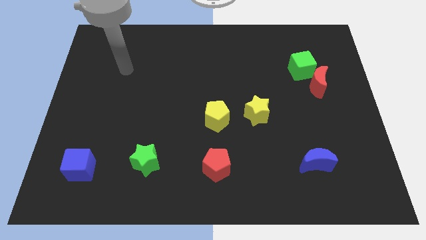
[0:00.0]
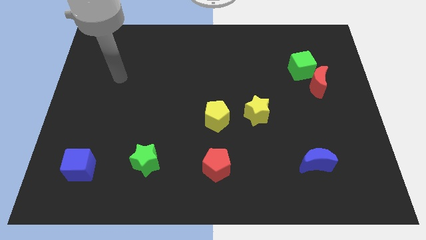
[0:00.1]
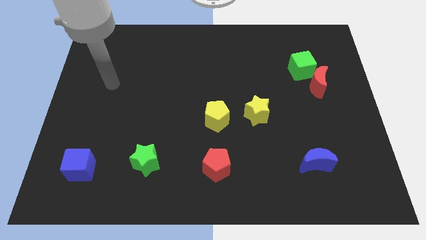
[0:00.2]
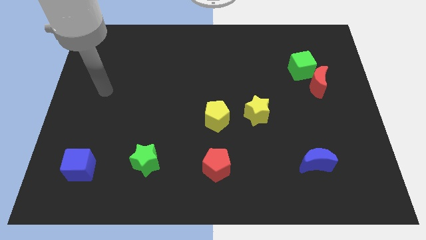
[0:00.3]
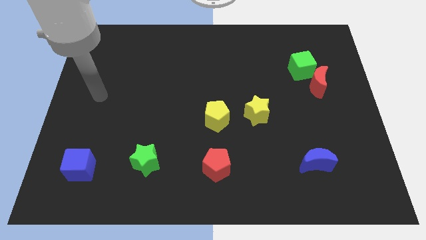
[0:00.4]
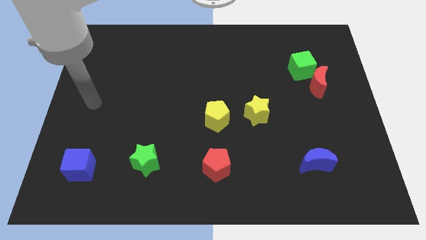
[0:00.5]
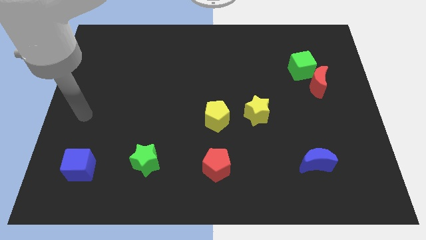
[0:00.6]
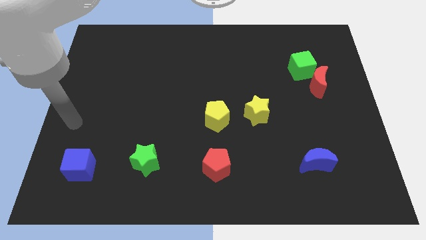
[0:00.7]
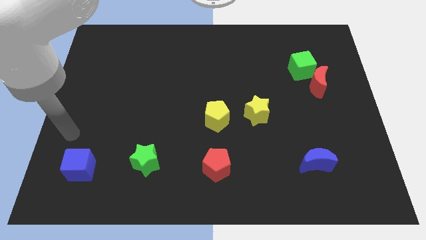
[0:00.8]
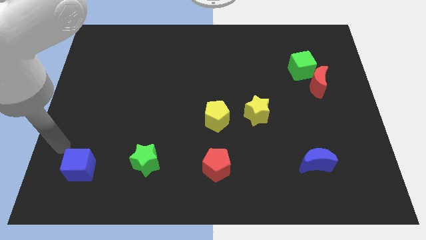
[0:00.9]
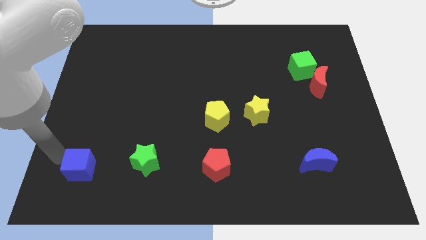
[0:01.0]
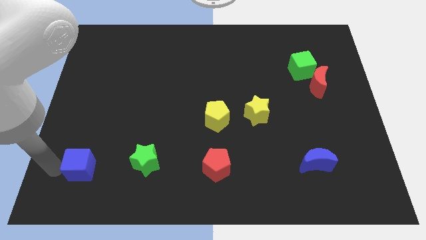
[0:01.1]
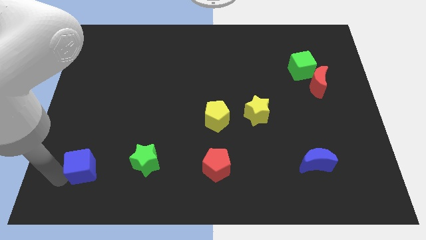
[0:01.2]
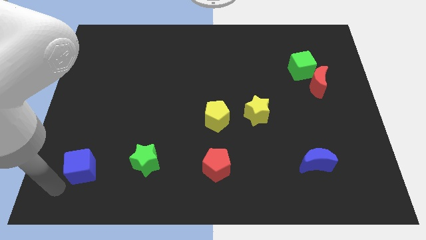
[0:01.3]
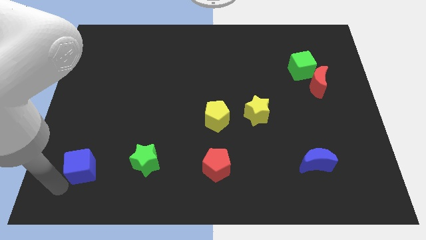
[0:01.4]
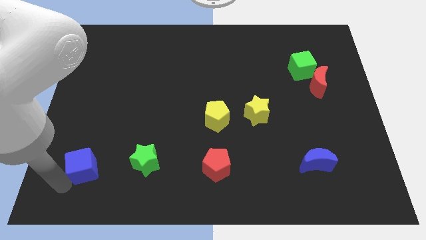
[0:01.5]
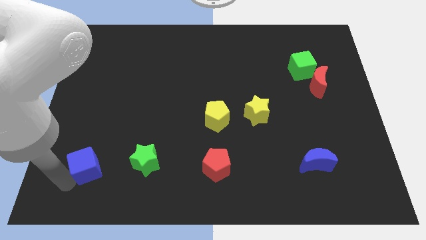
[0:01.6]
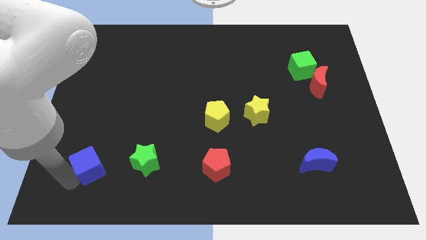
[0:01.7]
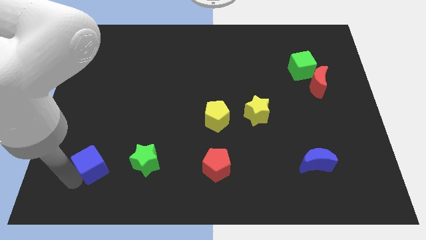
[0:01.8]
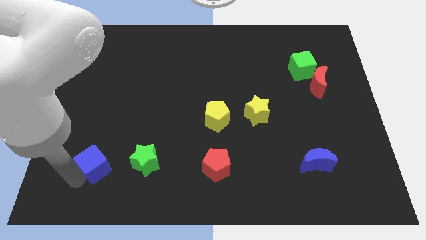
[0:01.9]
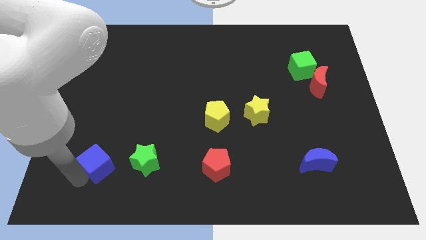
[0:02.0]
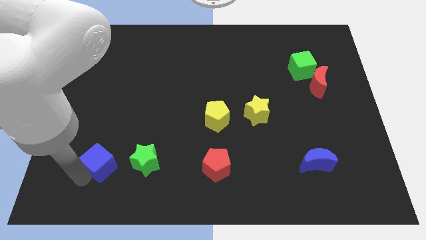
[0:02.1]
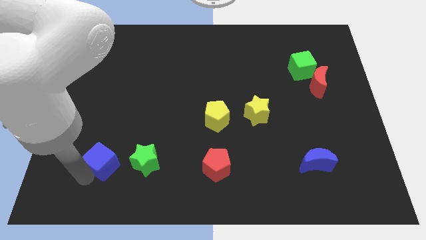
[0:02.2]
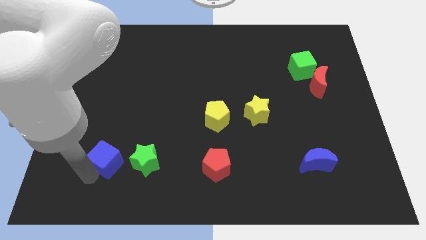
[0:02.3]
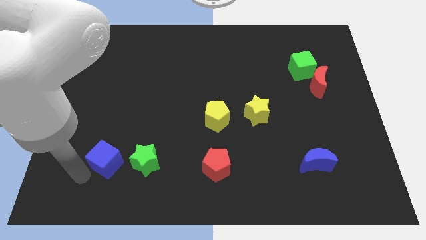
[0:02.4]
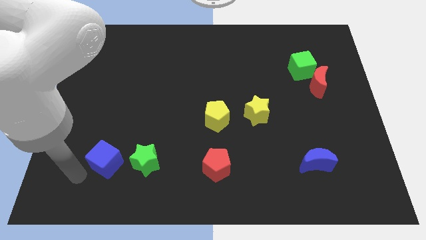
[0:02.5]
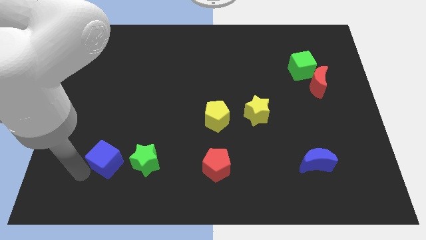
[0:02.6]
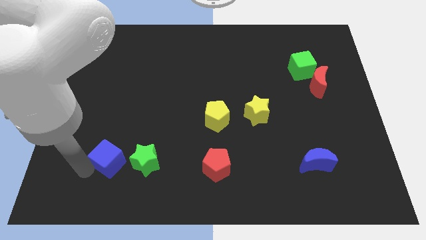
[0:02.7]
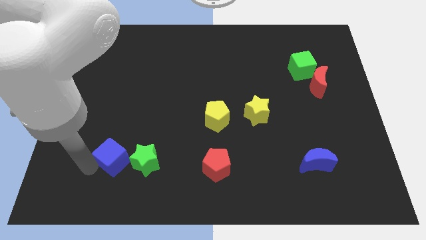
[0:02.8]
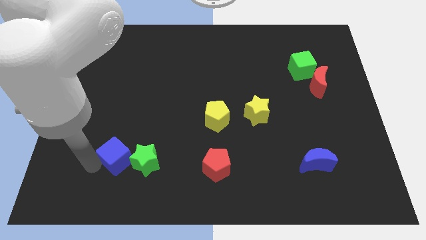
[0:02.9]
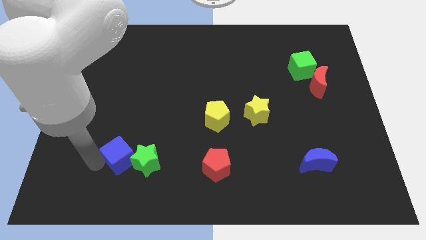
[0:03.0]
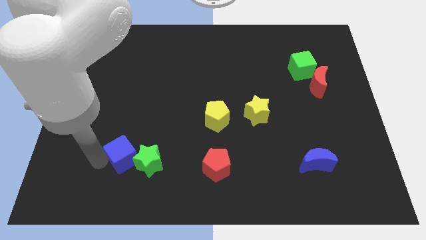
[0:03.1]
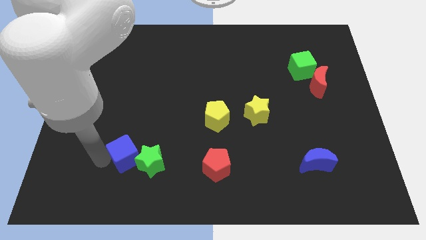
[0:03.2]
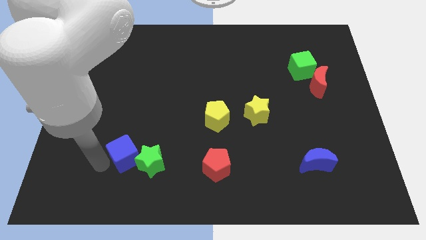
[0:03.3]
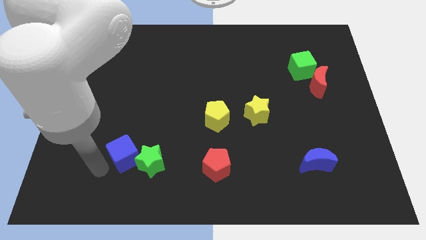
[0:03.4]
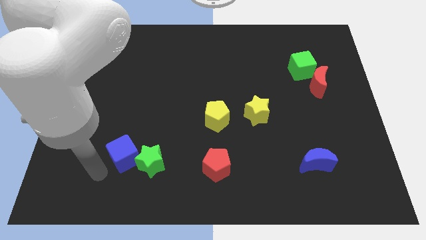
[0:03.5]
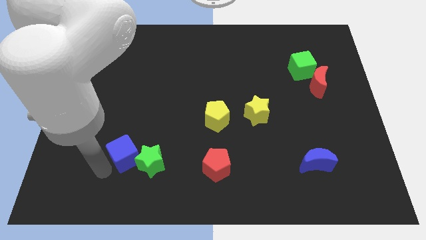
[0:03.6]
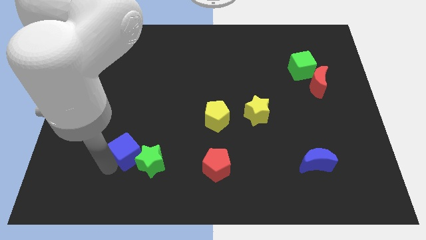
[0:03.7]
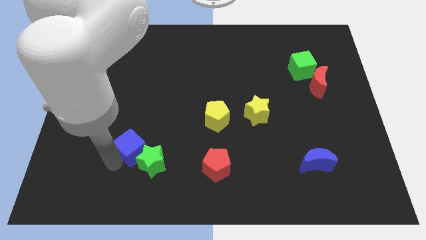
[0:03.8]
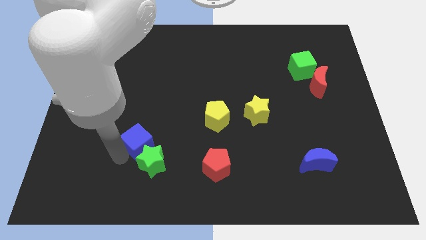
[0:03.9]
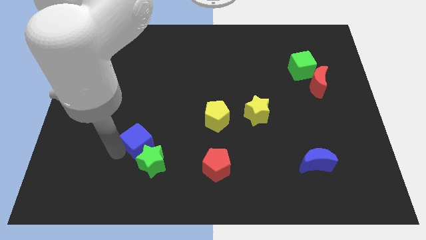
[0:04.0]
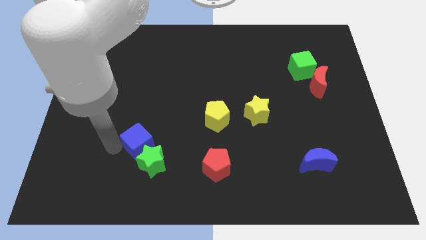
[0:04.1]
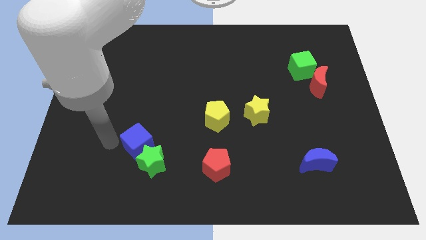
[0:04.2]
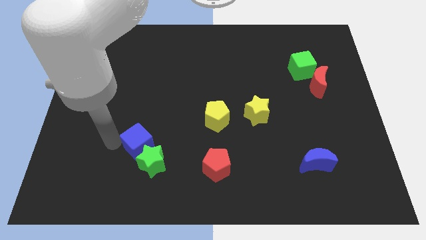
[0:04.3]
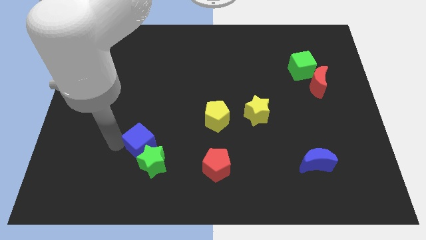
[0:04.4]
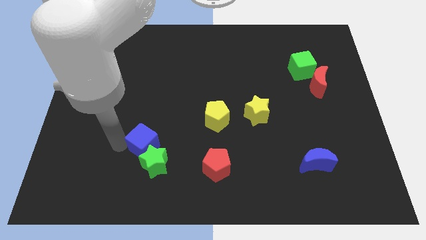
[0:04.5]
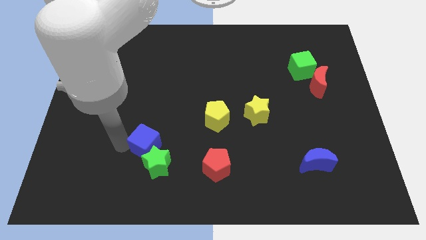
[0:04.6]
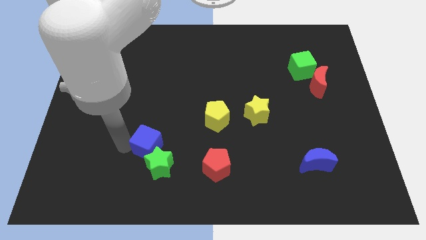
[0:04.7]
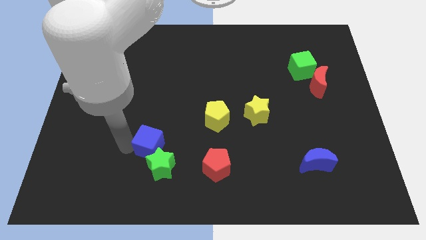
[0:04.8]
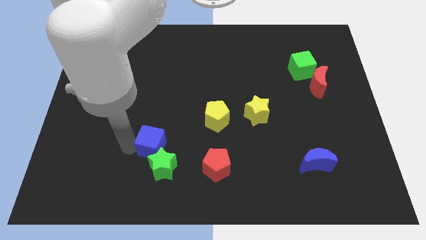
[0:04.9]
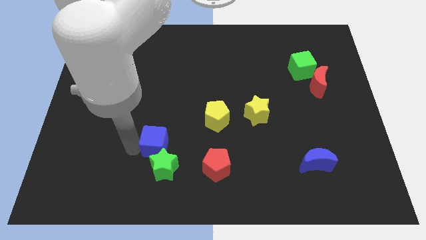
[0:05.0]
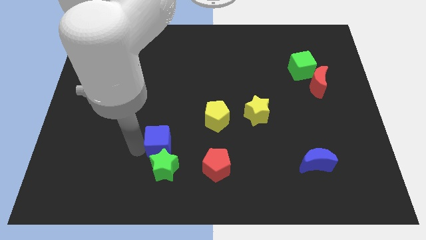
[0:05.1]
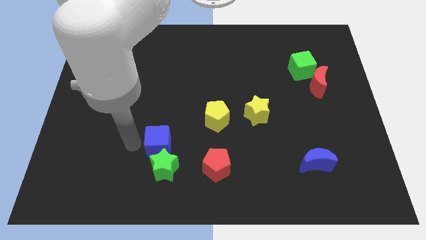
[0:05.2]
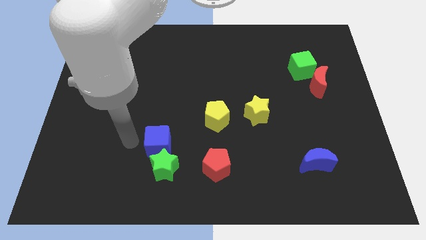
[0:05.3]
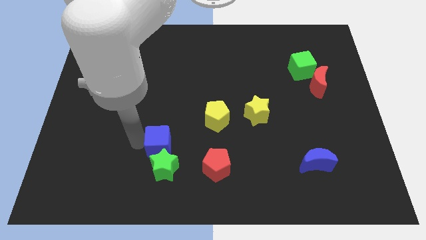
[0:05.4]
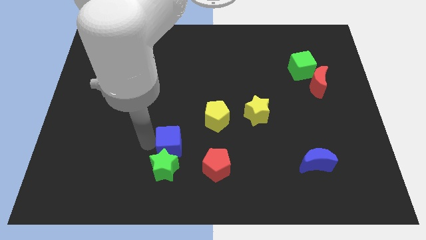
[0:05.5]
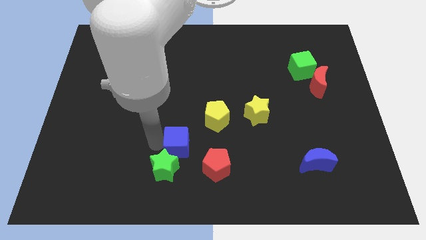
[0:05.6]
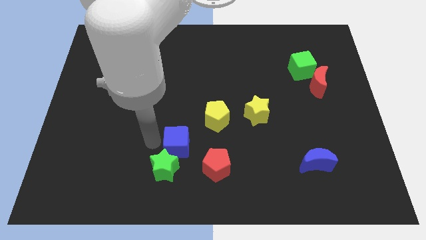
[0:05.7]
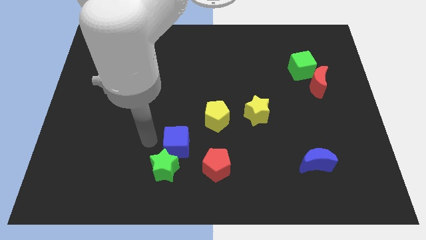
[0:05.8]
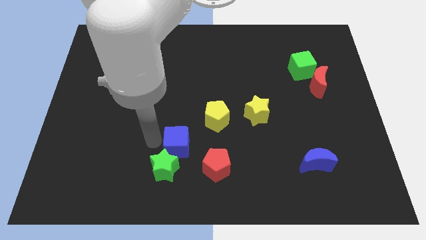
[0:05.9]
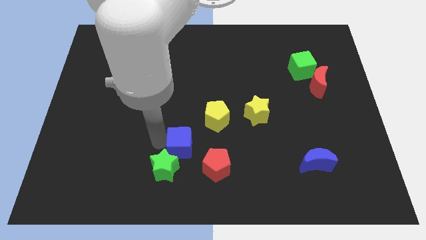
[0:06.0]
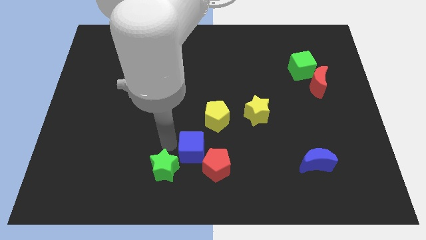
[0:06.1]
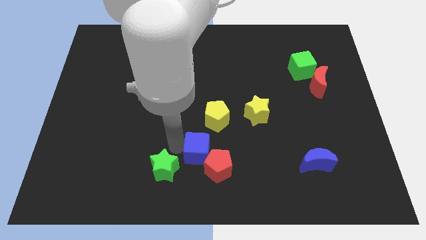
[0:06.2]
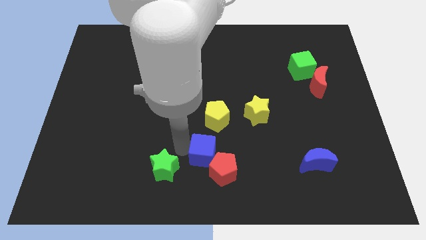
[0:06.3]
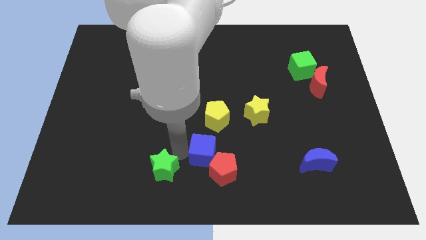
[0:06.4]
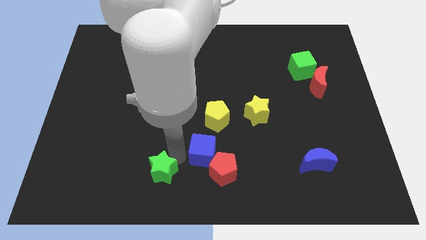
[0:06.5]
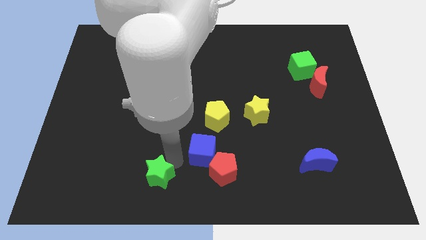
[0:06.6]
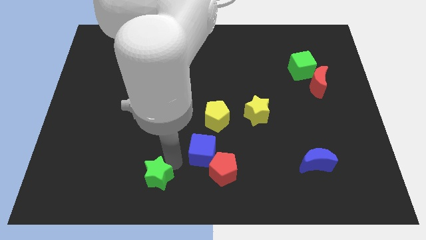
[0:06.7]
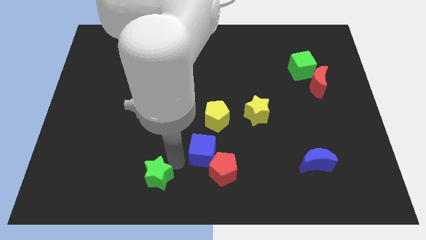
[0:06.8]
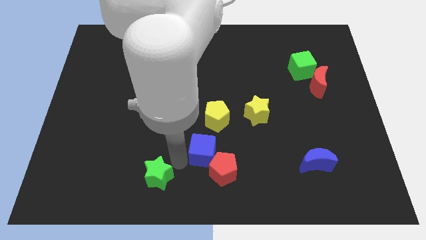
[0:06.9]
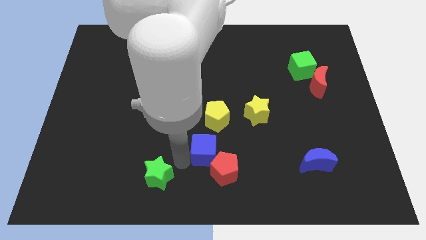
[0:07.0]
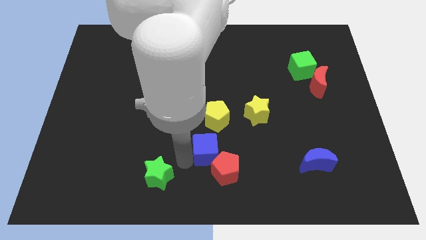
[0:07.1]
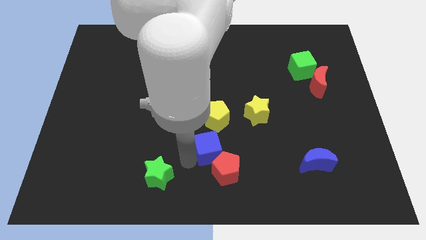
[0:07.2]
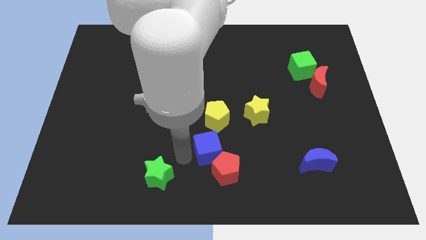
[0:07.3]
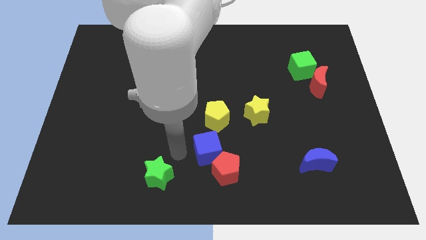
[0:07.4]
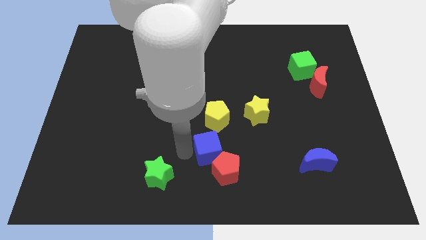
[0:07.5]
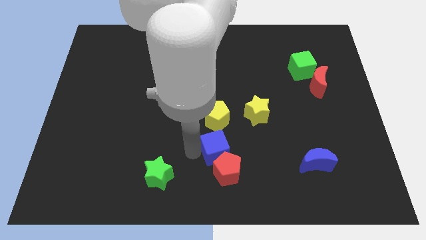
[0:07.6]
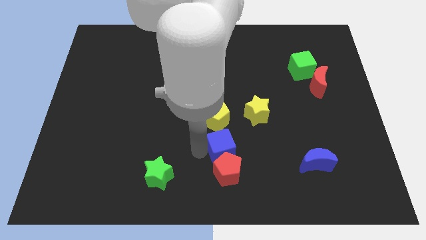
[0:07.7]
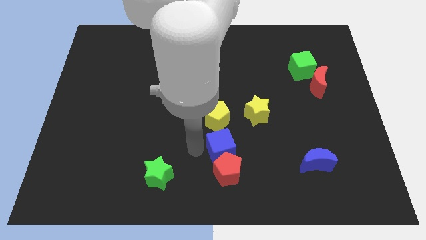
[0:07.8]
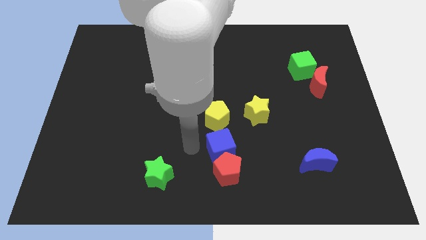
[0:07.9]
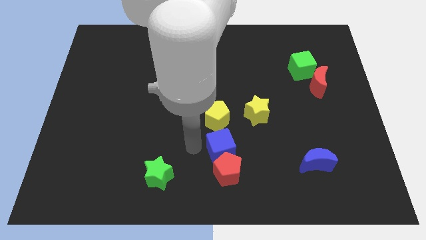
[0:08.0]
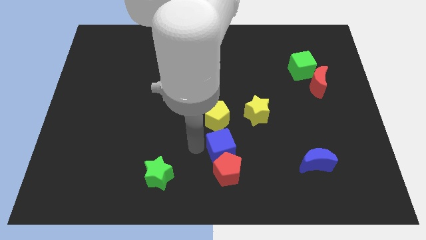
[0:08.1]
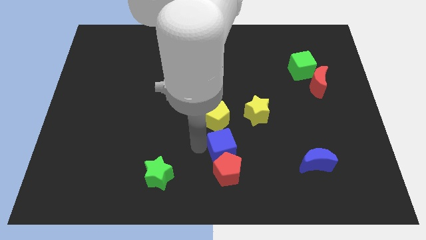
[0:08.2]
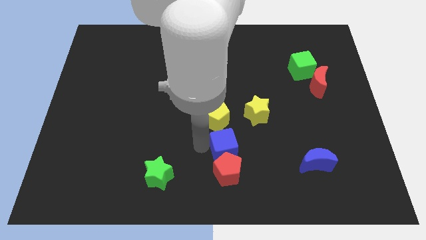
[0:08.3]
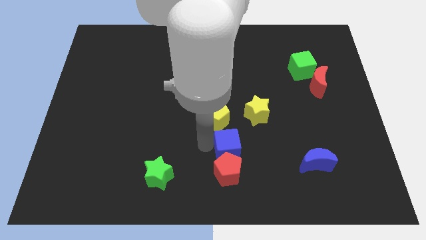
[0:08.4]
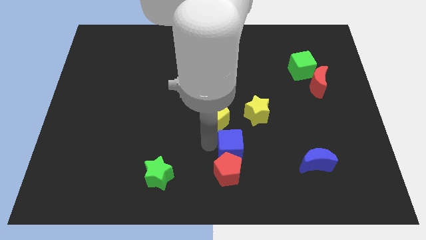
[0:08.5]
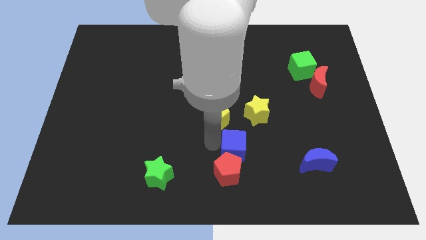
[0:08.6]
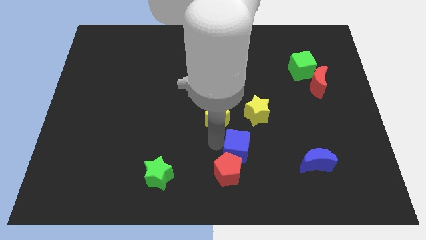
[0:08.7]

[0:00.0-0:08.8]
put the blue cube below the yellow star
